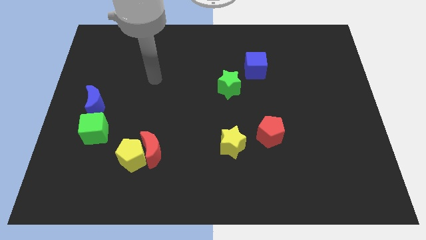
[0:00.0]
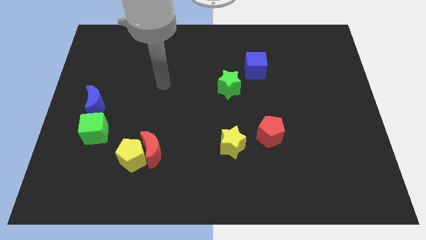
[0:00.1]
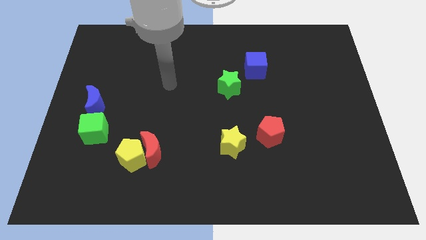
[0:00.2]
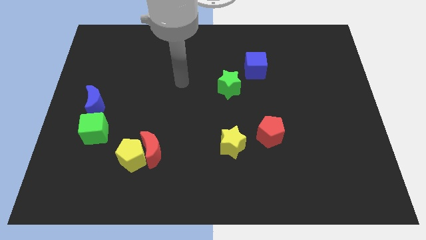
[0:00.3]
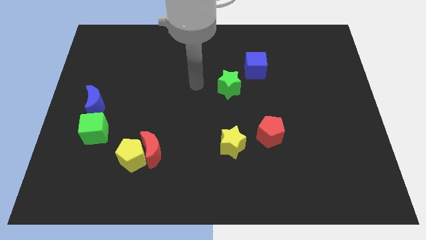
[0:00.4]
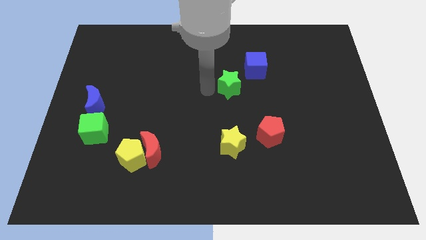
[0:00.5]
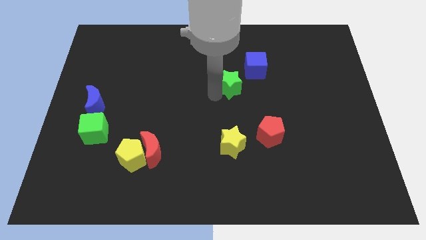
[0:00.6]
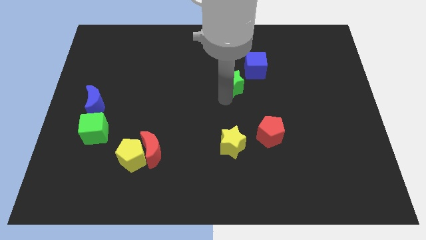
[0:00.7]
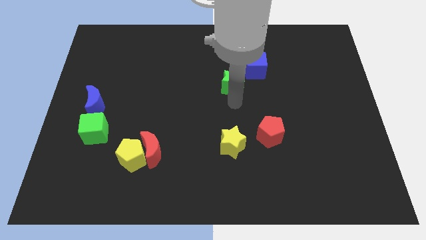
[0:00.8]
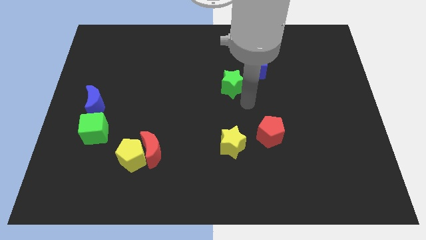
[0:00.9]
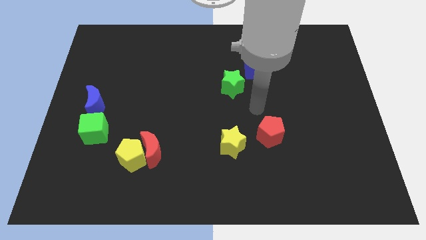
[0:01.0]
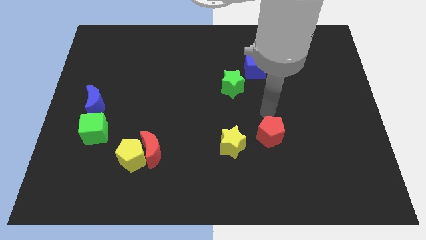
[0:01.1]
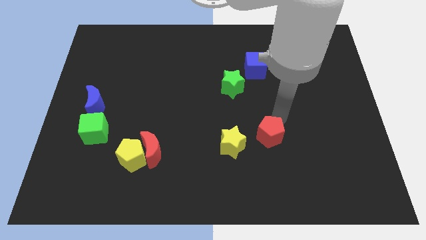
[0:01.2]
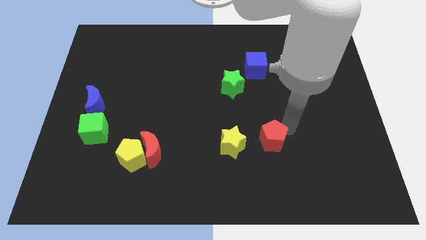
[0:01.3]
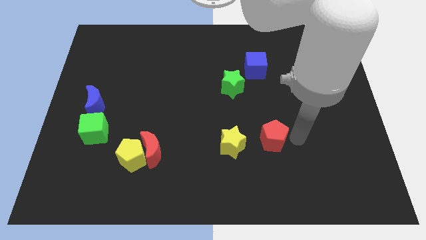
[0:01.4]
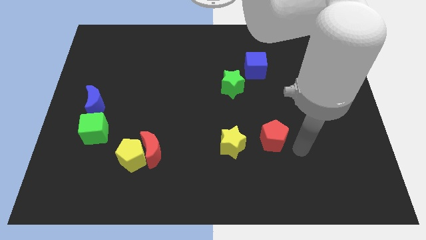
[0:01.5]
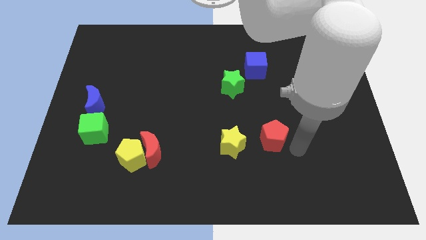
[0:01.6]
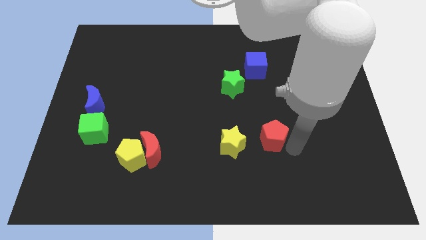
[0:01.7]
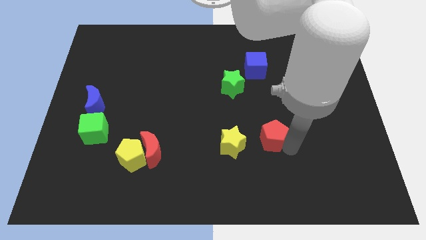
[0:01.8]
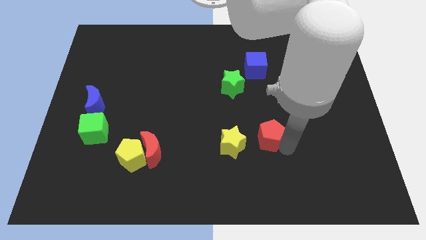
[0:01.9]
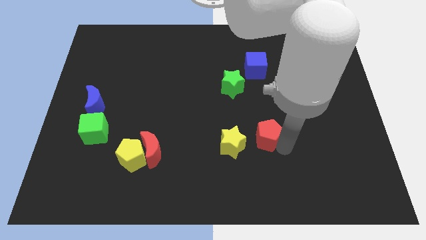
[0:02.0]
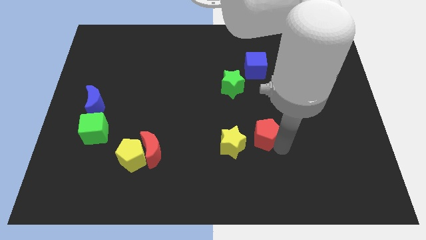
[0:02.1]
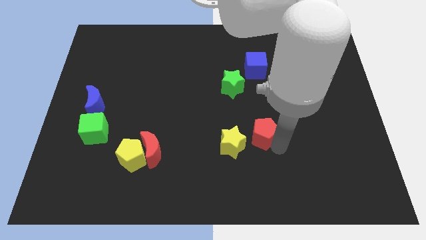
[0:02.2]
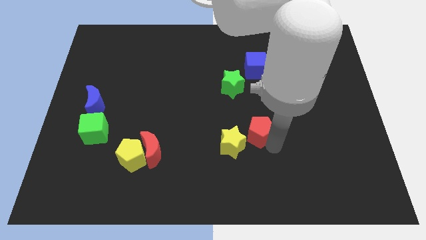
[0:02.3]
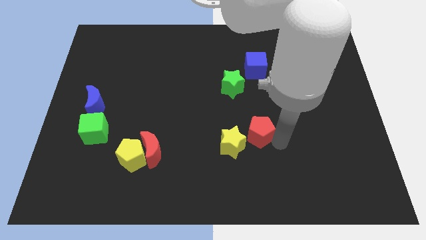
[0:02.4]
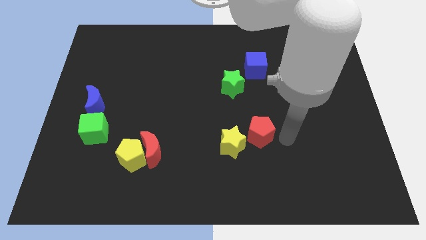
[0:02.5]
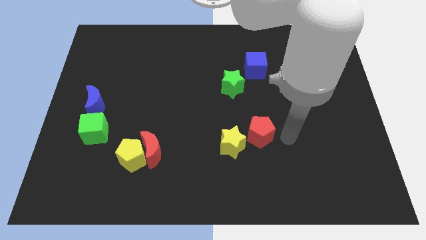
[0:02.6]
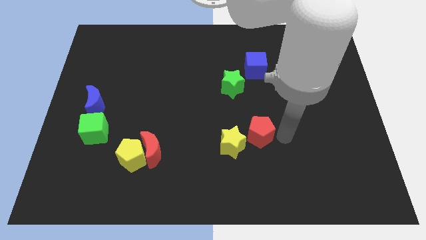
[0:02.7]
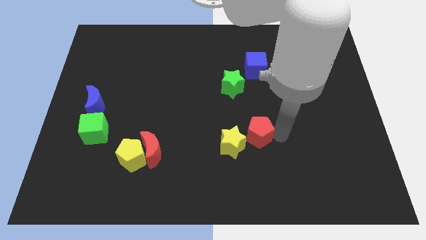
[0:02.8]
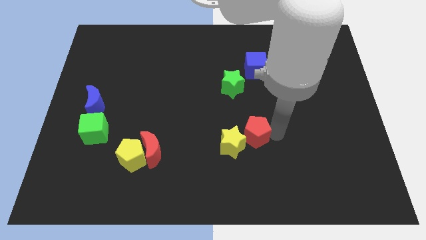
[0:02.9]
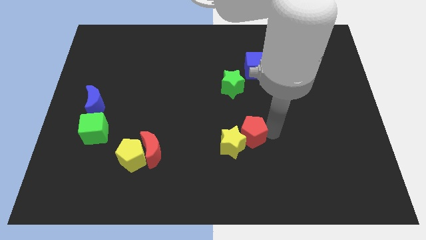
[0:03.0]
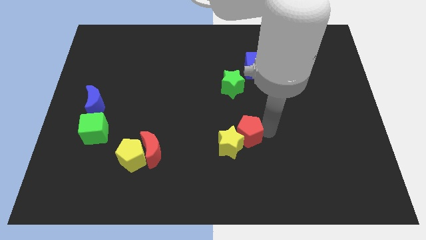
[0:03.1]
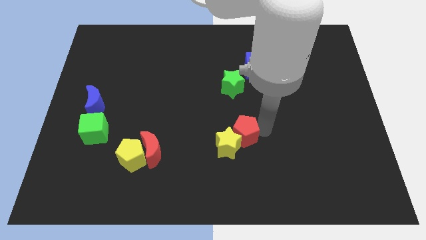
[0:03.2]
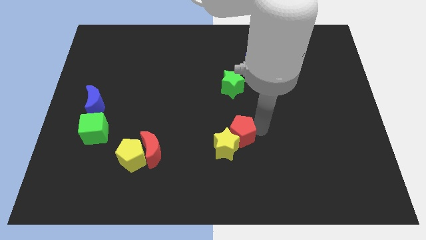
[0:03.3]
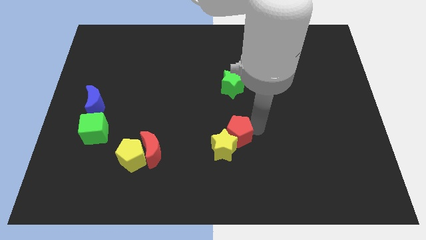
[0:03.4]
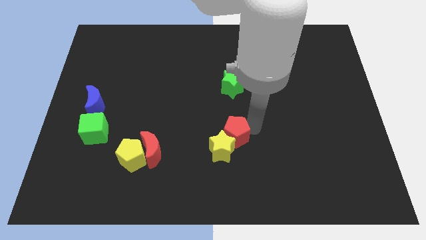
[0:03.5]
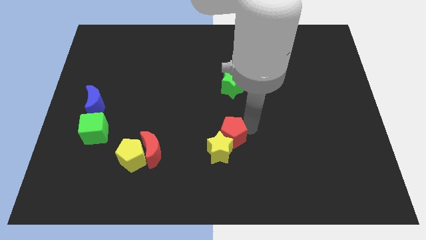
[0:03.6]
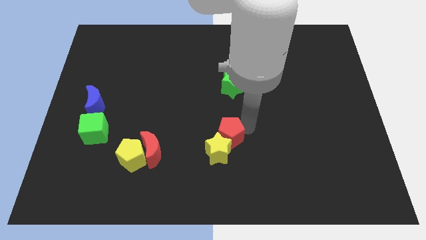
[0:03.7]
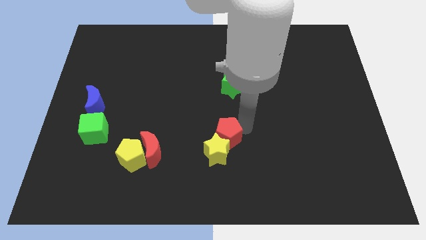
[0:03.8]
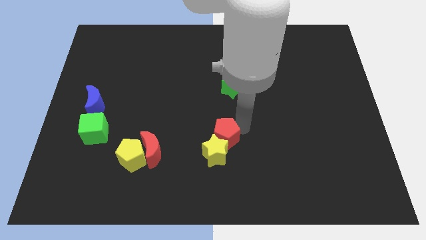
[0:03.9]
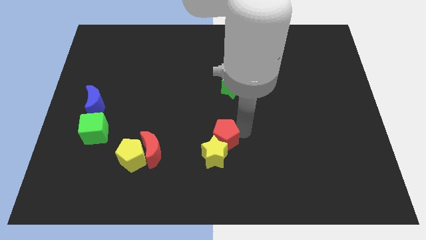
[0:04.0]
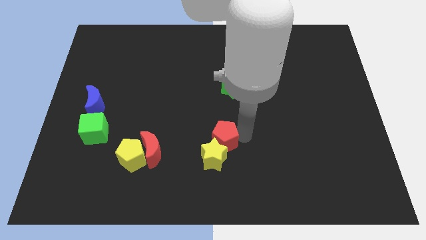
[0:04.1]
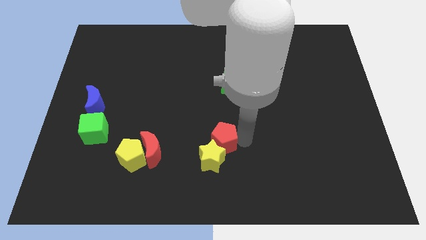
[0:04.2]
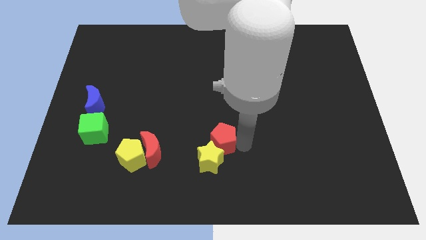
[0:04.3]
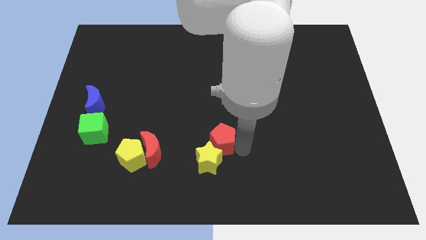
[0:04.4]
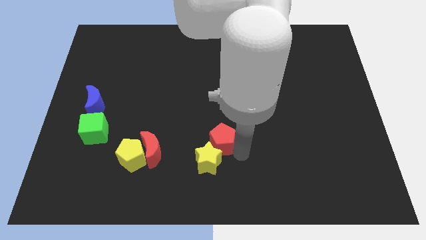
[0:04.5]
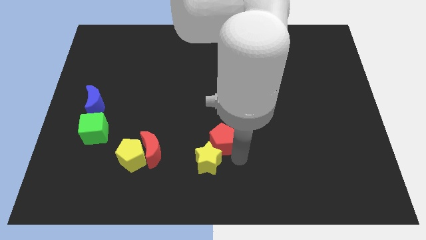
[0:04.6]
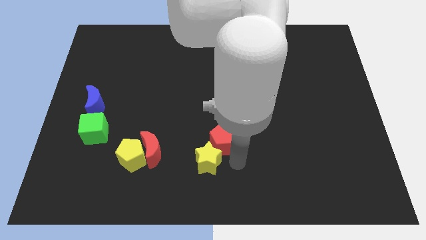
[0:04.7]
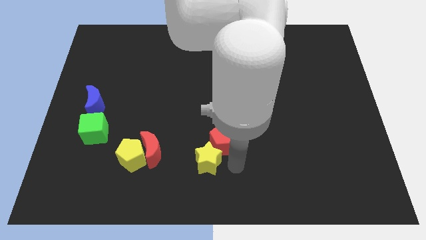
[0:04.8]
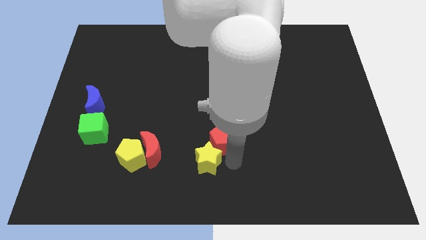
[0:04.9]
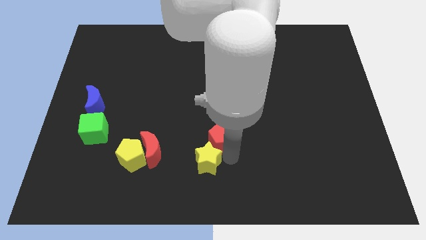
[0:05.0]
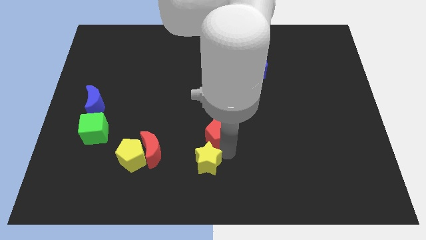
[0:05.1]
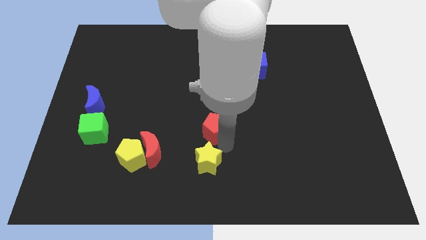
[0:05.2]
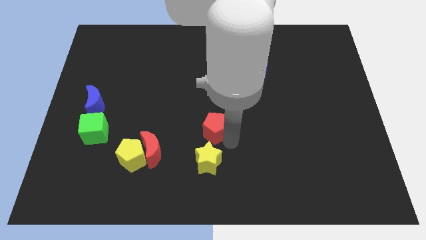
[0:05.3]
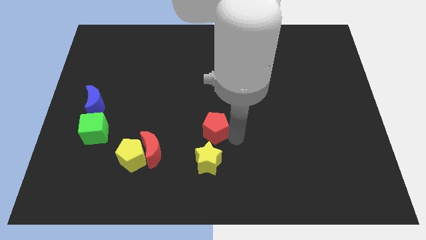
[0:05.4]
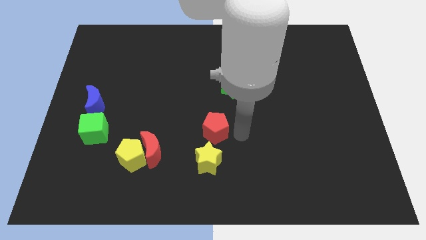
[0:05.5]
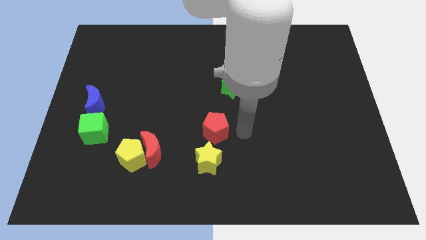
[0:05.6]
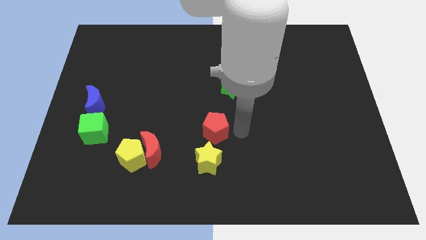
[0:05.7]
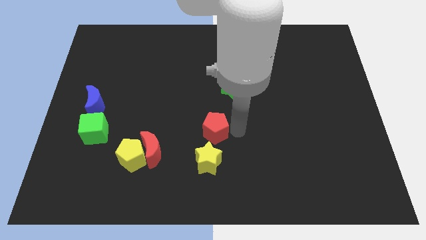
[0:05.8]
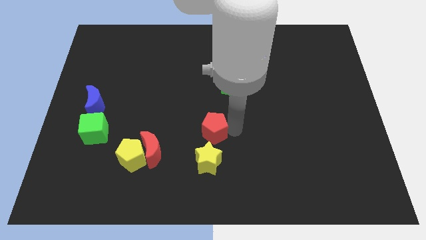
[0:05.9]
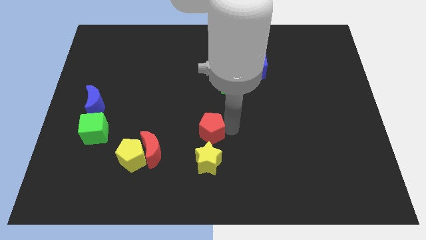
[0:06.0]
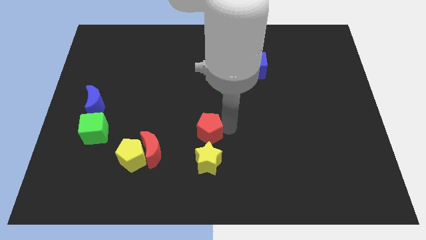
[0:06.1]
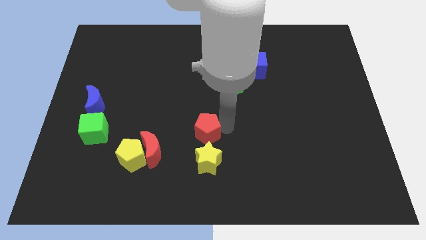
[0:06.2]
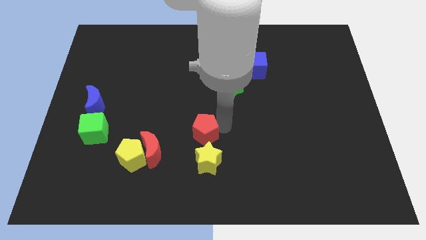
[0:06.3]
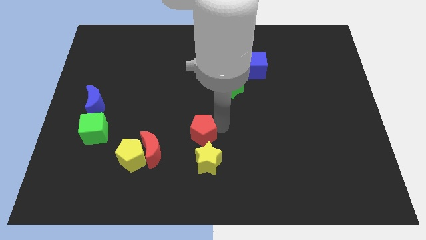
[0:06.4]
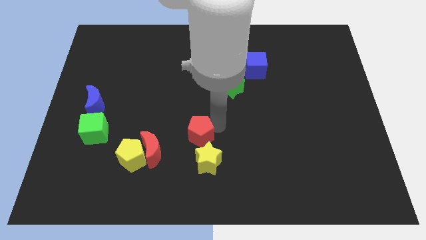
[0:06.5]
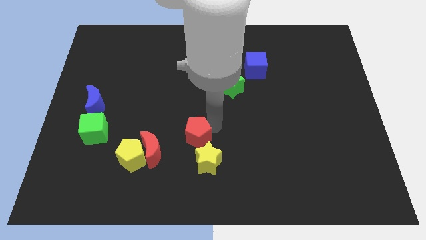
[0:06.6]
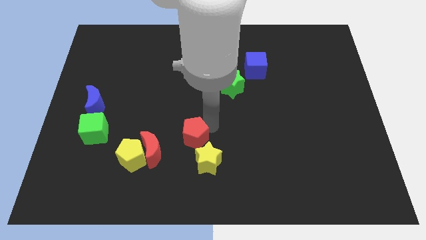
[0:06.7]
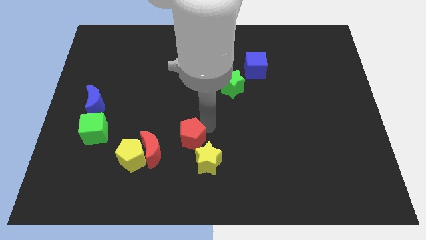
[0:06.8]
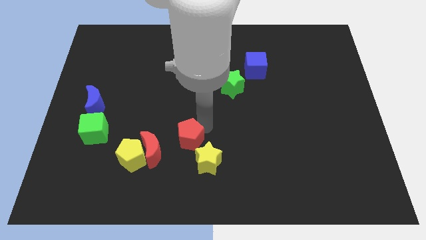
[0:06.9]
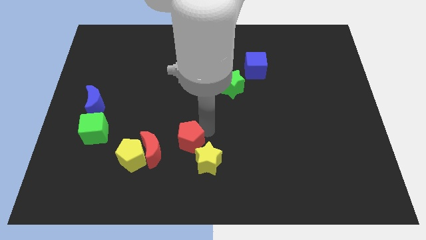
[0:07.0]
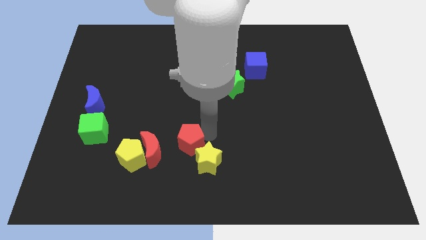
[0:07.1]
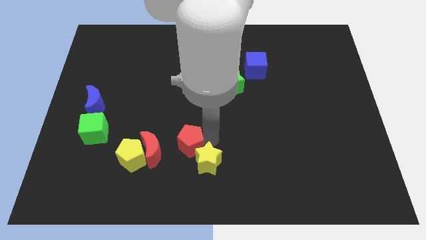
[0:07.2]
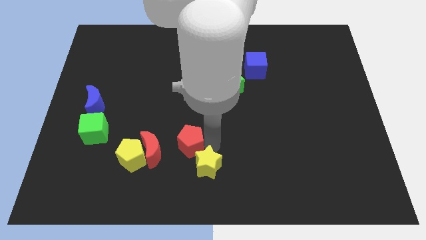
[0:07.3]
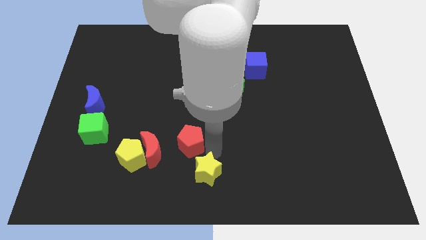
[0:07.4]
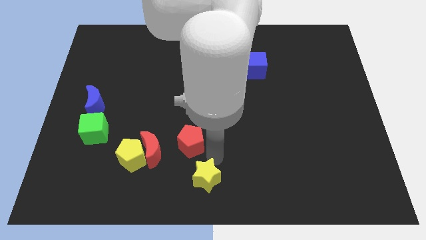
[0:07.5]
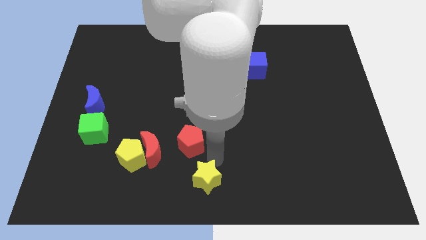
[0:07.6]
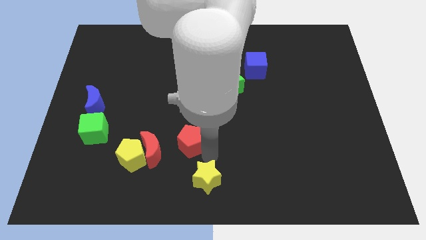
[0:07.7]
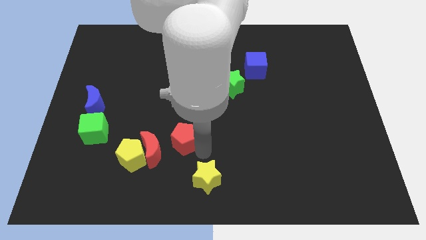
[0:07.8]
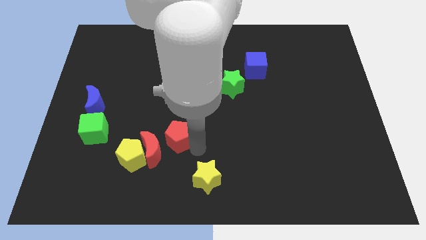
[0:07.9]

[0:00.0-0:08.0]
push the red pentagon left

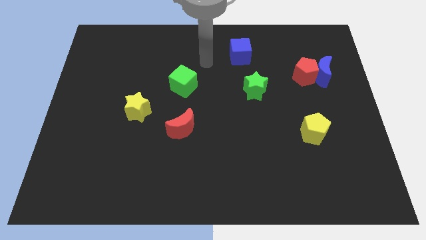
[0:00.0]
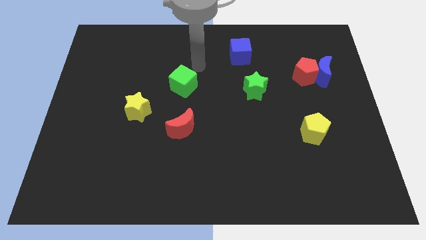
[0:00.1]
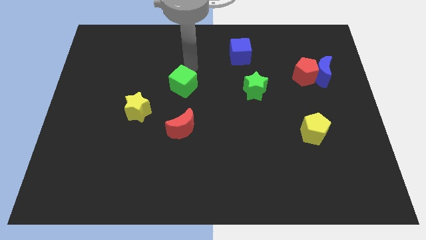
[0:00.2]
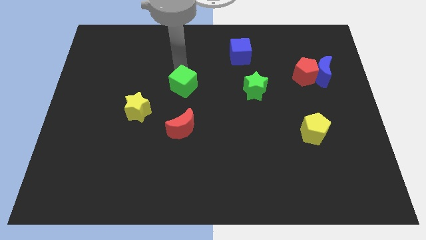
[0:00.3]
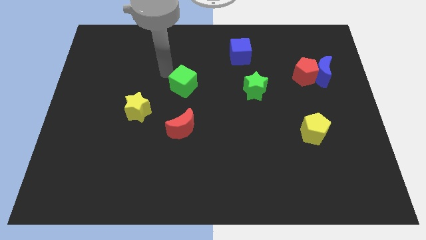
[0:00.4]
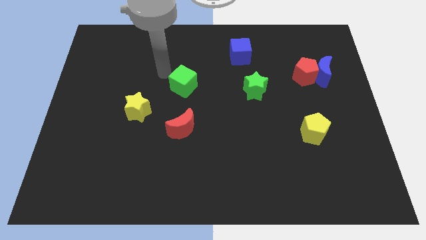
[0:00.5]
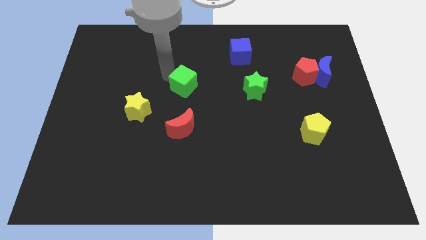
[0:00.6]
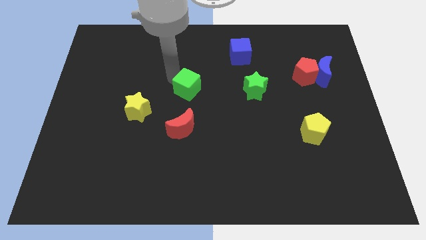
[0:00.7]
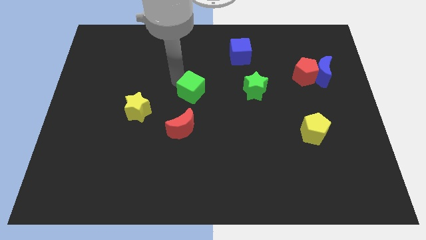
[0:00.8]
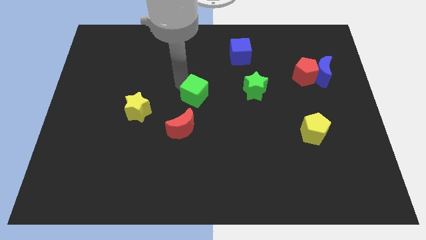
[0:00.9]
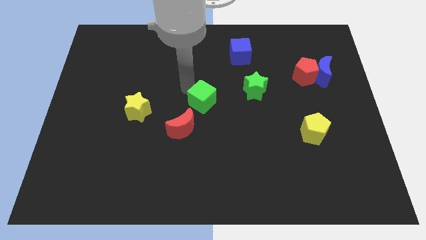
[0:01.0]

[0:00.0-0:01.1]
slide the green cube down and then right a little
